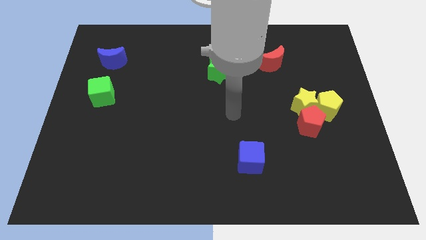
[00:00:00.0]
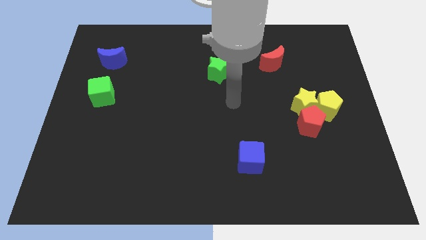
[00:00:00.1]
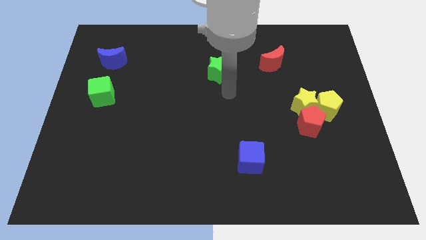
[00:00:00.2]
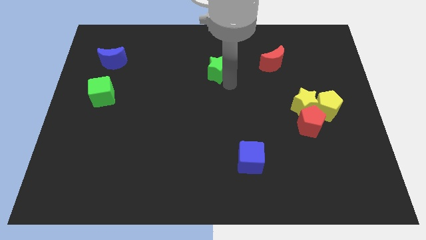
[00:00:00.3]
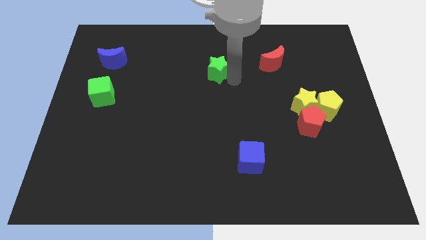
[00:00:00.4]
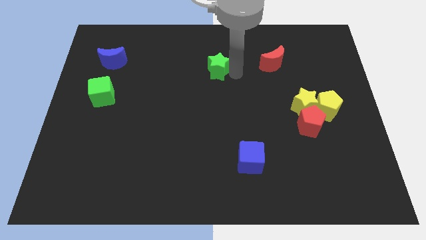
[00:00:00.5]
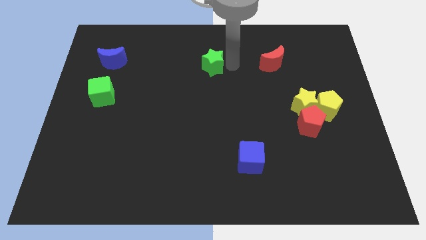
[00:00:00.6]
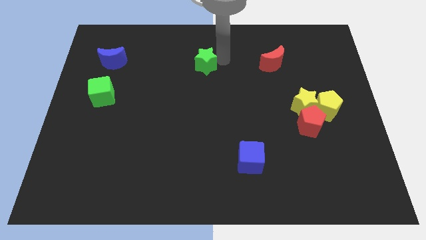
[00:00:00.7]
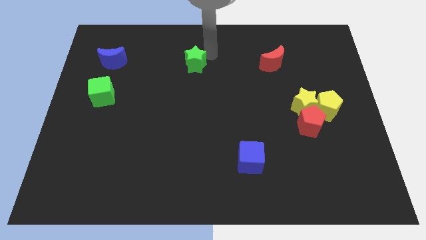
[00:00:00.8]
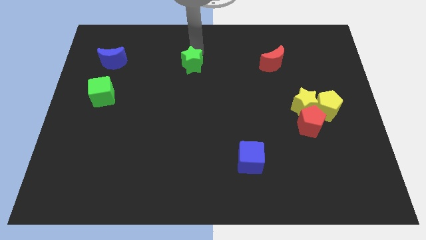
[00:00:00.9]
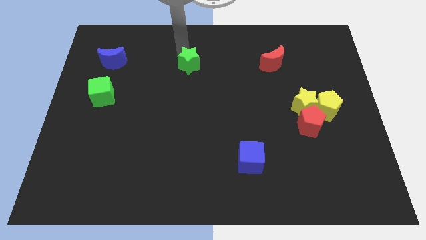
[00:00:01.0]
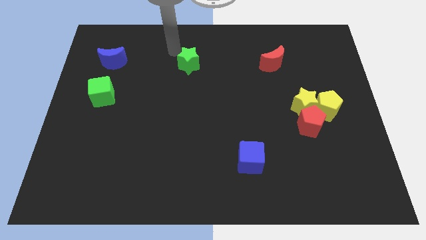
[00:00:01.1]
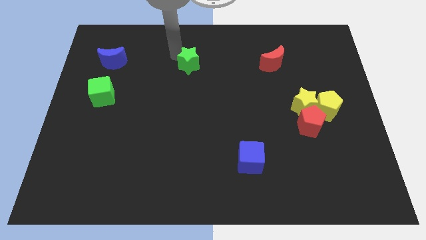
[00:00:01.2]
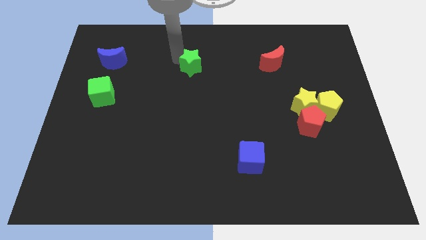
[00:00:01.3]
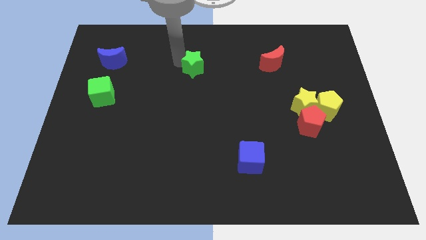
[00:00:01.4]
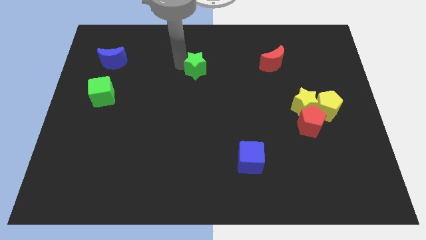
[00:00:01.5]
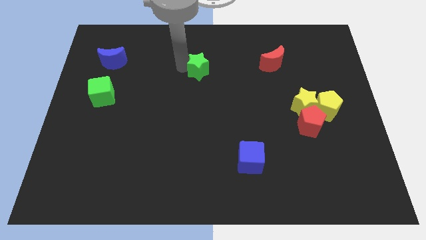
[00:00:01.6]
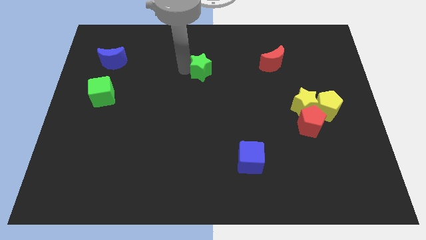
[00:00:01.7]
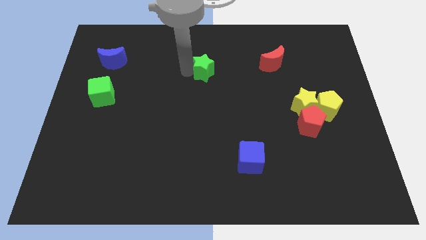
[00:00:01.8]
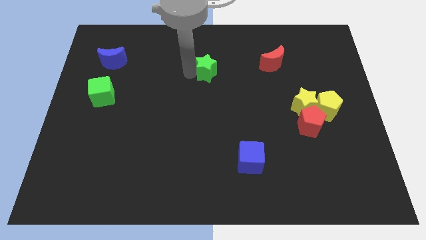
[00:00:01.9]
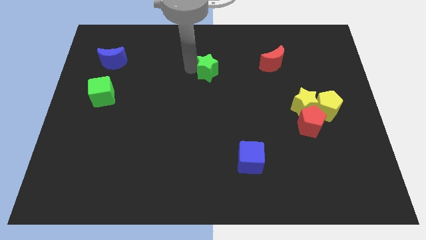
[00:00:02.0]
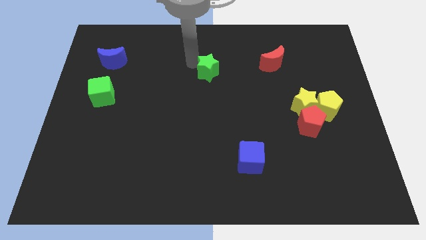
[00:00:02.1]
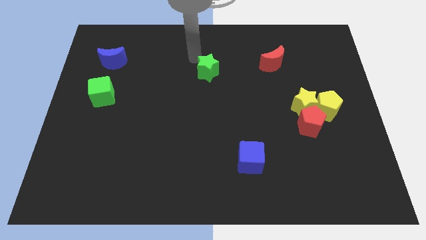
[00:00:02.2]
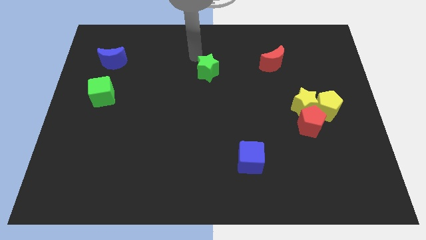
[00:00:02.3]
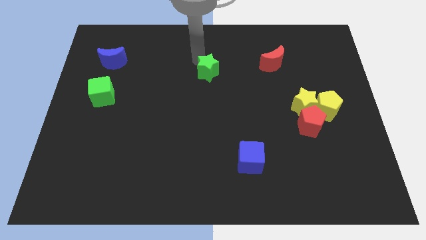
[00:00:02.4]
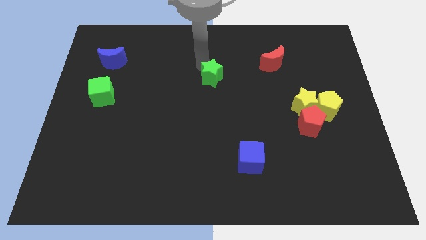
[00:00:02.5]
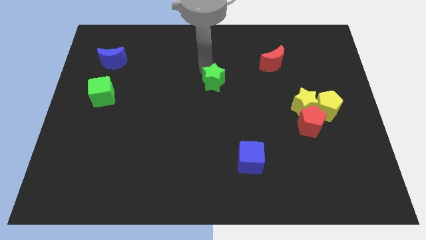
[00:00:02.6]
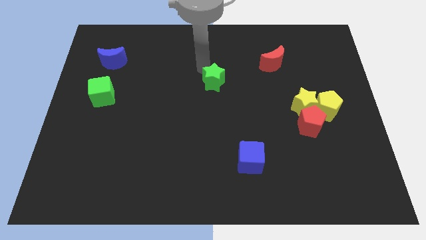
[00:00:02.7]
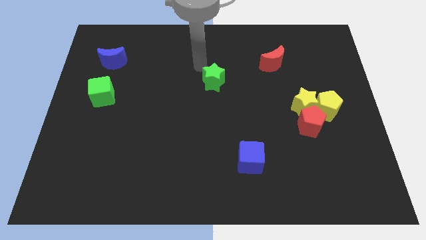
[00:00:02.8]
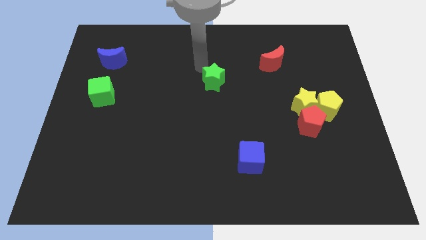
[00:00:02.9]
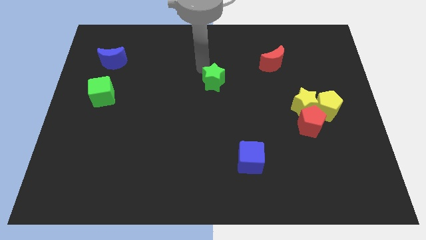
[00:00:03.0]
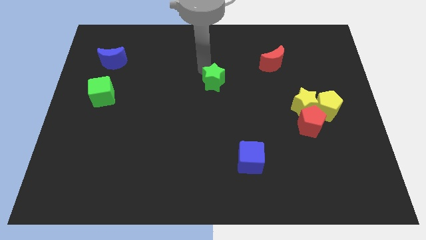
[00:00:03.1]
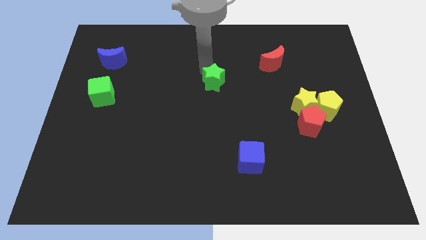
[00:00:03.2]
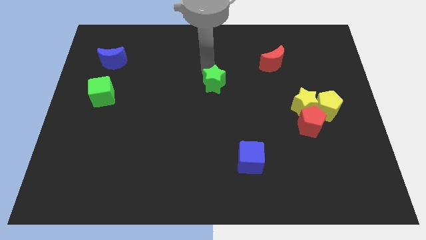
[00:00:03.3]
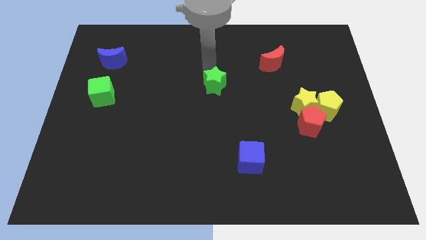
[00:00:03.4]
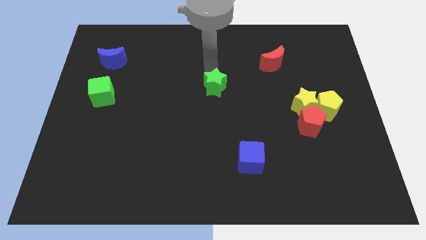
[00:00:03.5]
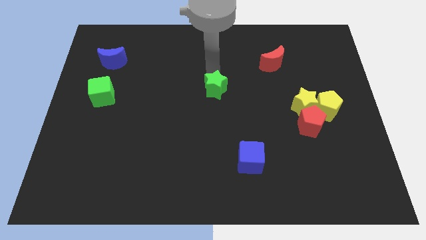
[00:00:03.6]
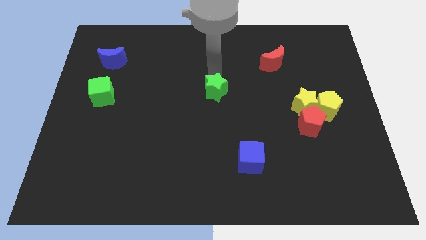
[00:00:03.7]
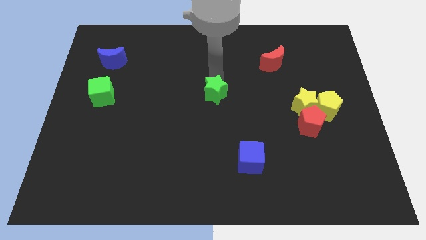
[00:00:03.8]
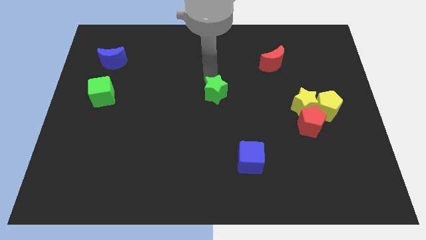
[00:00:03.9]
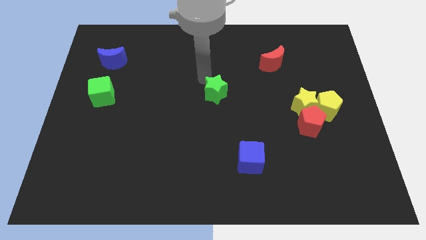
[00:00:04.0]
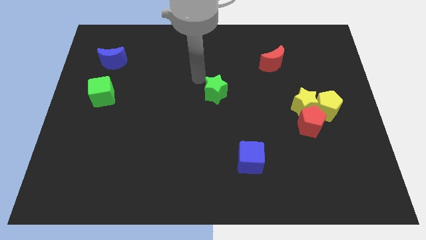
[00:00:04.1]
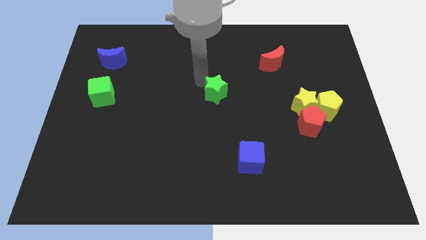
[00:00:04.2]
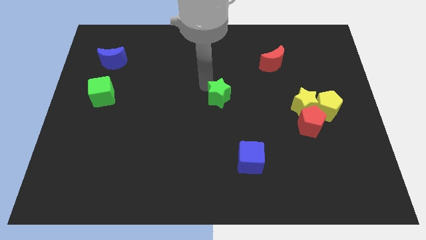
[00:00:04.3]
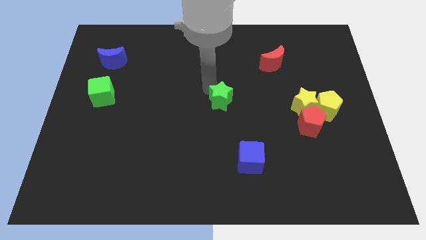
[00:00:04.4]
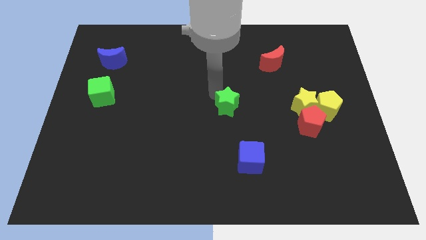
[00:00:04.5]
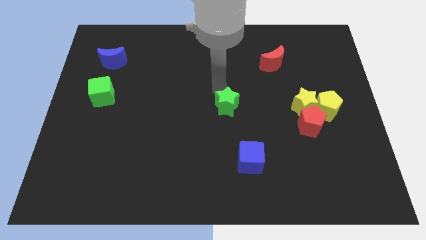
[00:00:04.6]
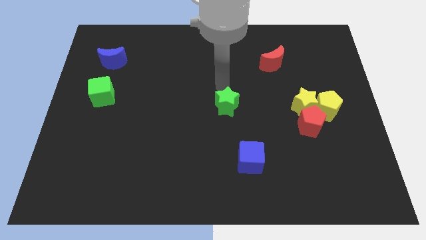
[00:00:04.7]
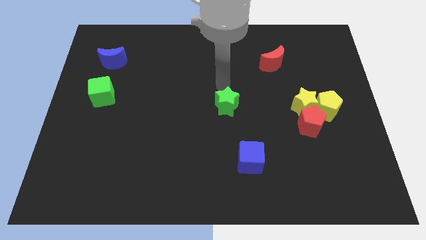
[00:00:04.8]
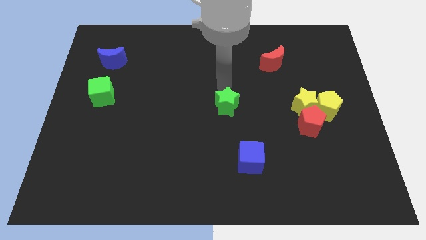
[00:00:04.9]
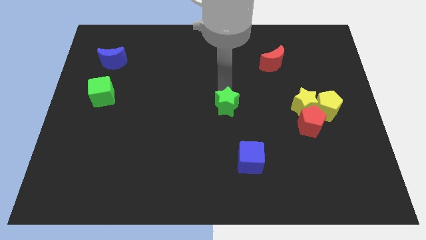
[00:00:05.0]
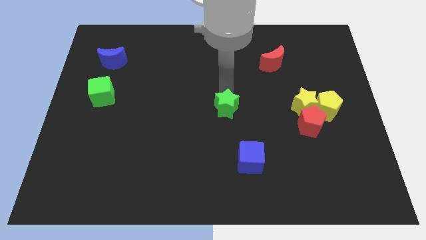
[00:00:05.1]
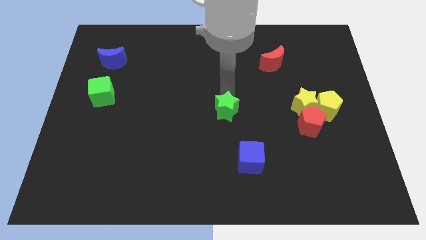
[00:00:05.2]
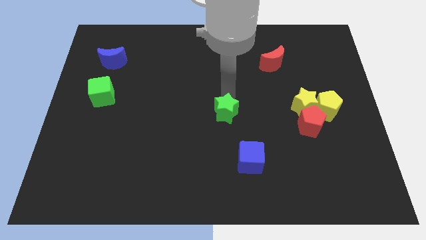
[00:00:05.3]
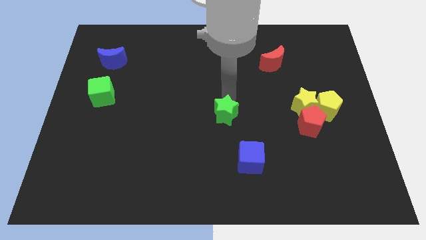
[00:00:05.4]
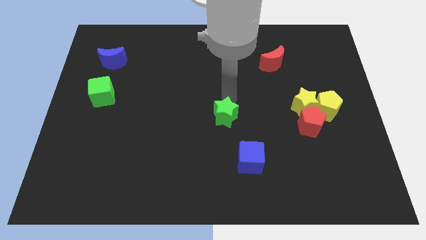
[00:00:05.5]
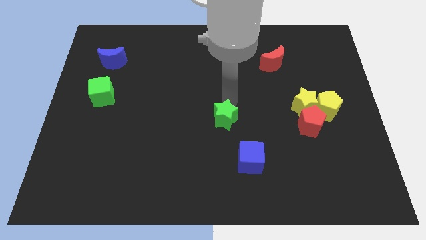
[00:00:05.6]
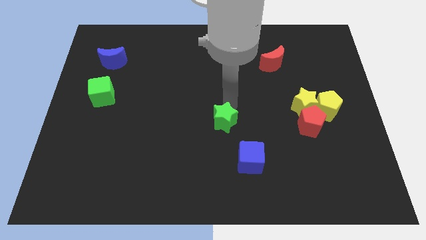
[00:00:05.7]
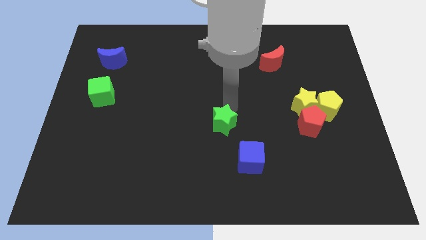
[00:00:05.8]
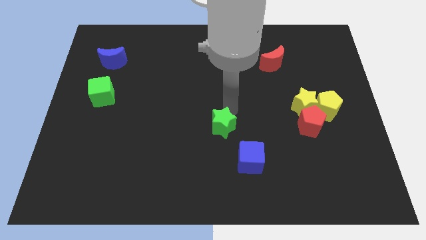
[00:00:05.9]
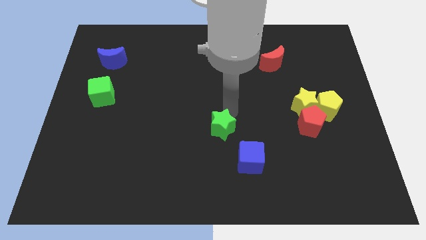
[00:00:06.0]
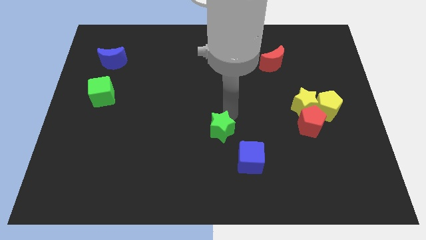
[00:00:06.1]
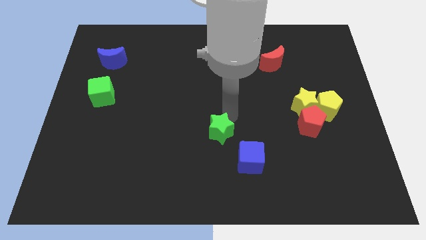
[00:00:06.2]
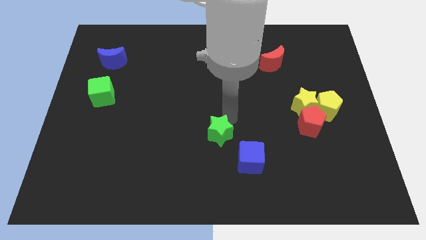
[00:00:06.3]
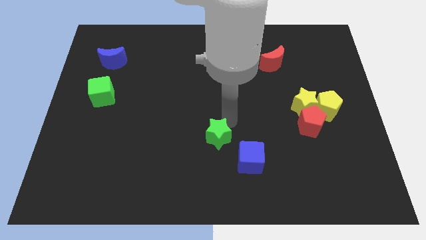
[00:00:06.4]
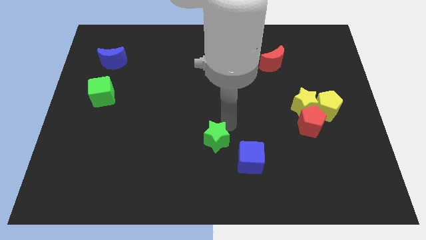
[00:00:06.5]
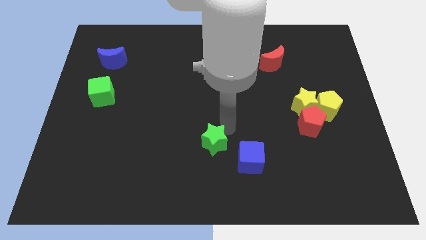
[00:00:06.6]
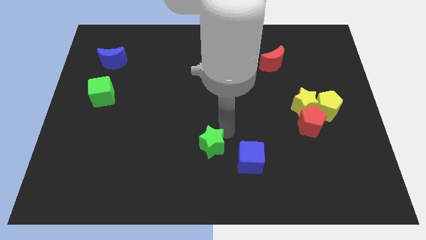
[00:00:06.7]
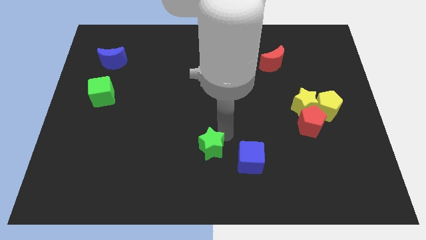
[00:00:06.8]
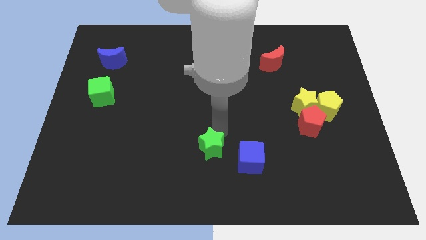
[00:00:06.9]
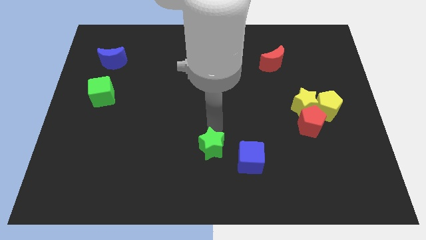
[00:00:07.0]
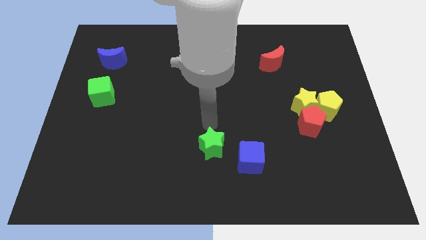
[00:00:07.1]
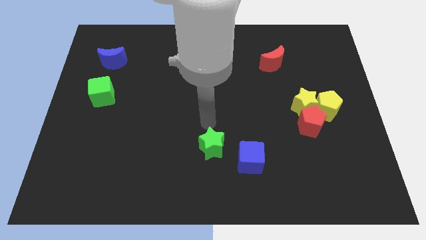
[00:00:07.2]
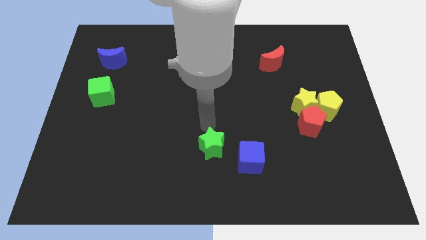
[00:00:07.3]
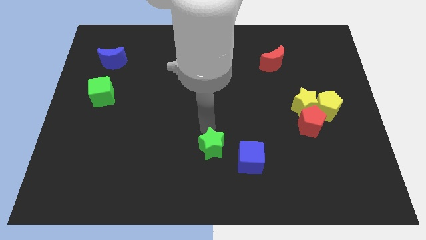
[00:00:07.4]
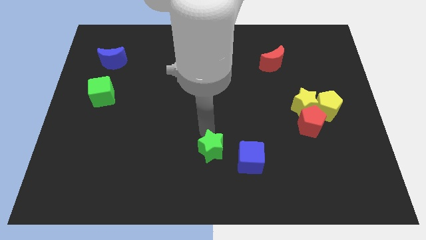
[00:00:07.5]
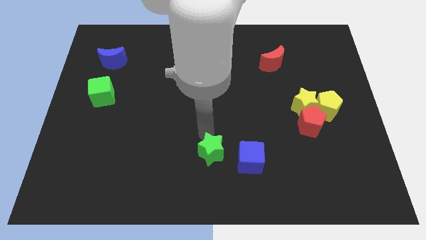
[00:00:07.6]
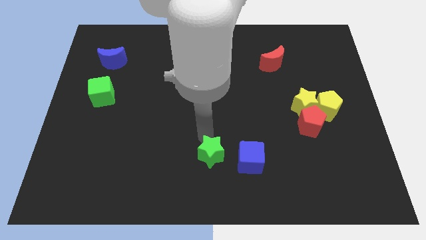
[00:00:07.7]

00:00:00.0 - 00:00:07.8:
push the green star to the bottom side
